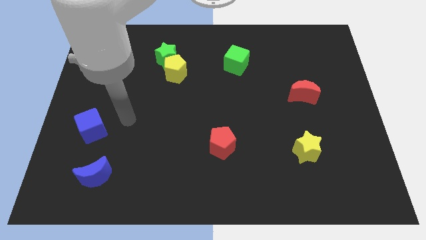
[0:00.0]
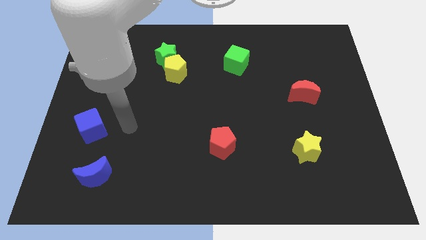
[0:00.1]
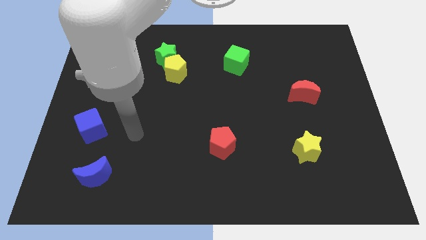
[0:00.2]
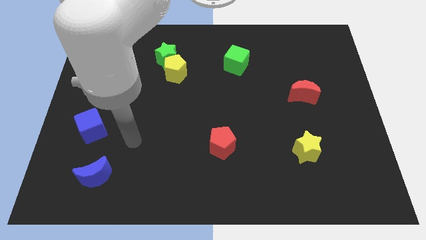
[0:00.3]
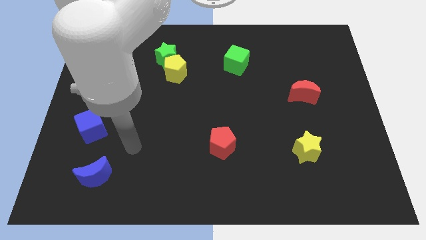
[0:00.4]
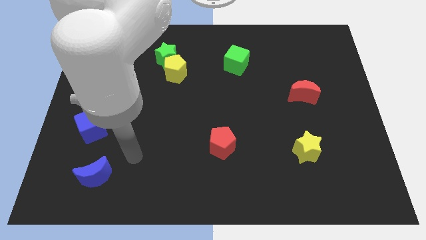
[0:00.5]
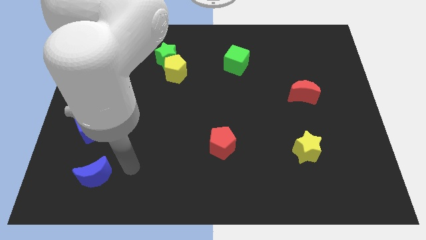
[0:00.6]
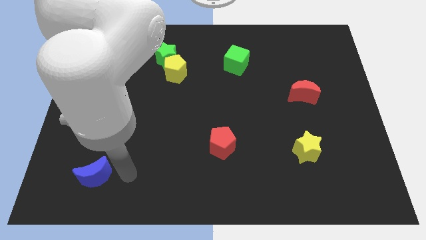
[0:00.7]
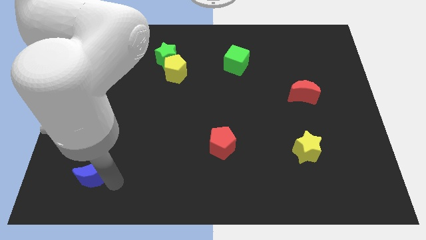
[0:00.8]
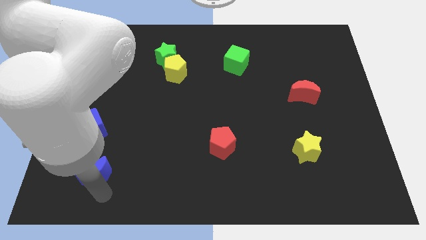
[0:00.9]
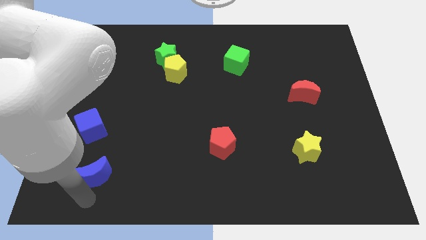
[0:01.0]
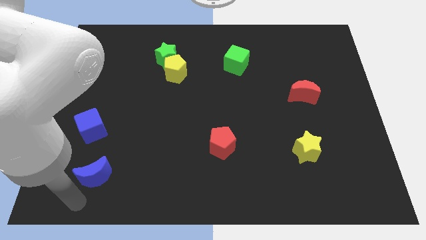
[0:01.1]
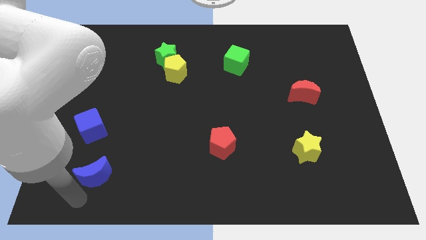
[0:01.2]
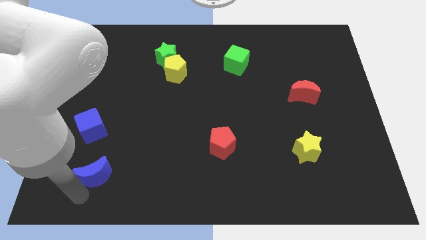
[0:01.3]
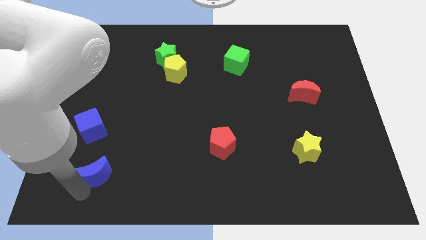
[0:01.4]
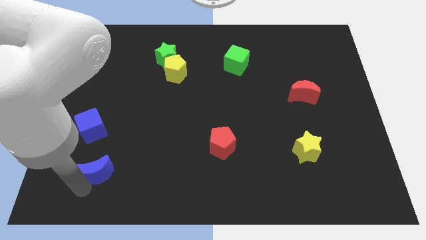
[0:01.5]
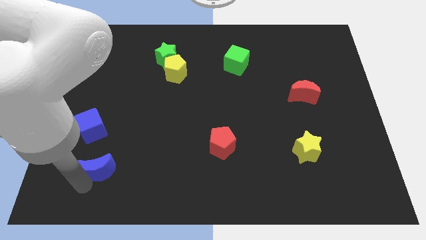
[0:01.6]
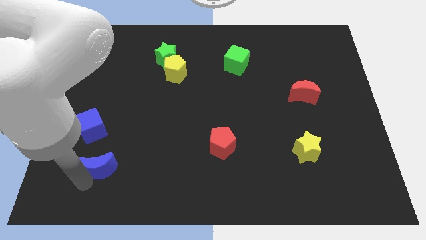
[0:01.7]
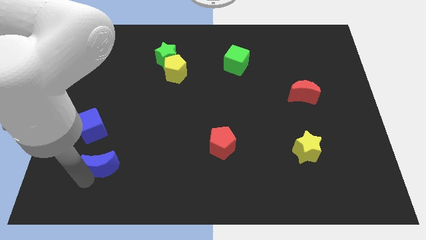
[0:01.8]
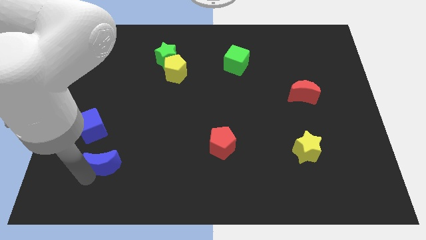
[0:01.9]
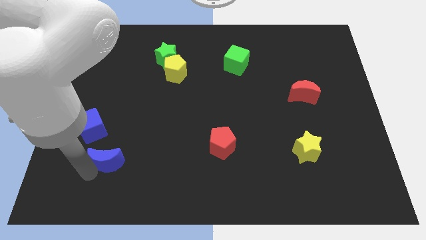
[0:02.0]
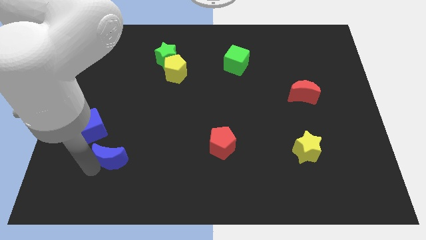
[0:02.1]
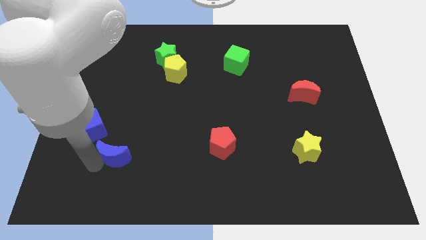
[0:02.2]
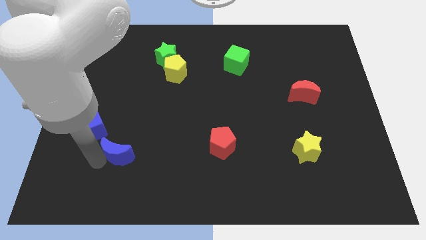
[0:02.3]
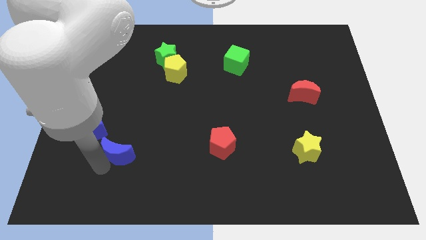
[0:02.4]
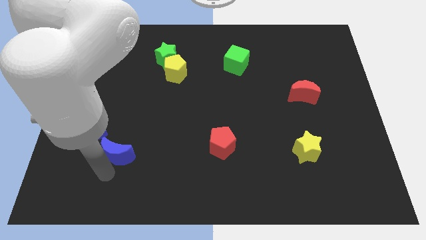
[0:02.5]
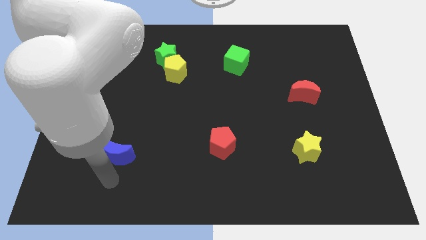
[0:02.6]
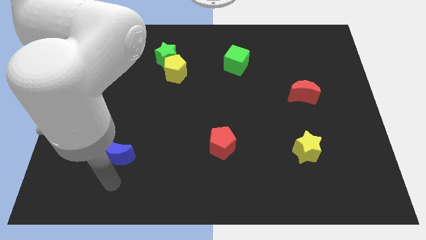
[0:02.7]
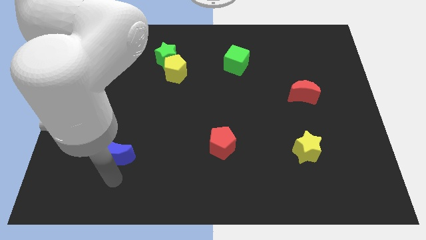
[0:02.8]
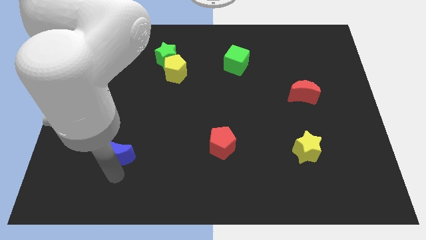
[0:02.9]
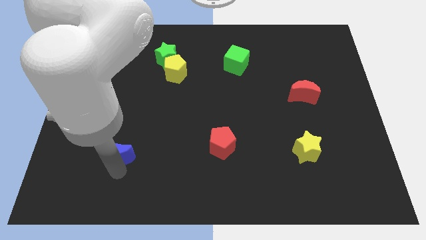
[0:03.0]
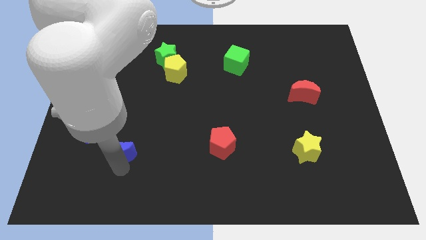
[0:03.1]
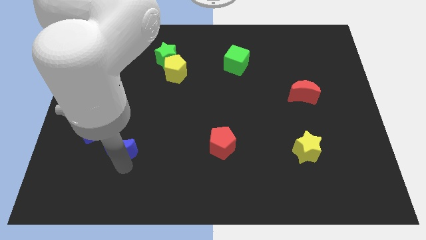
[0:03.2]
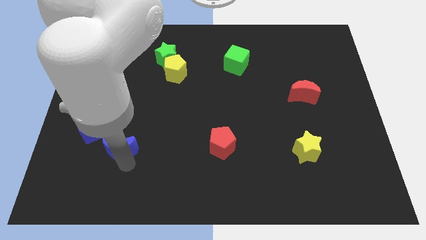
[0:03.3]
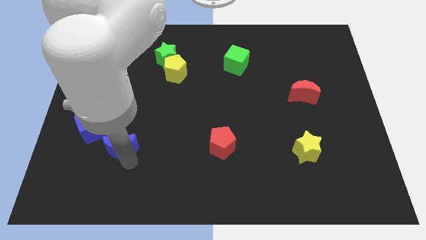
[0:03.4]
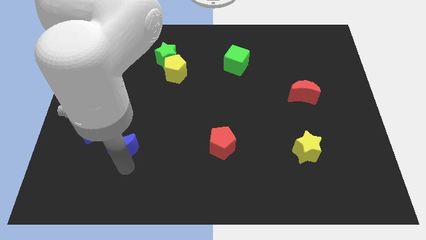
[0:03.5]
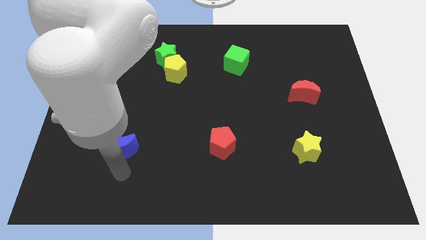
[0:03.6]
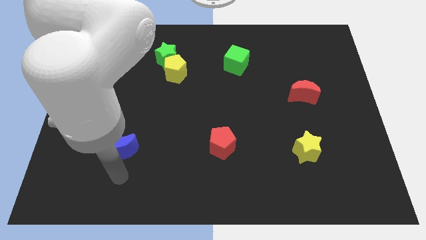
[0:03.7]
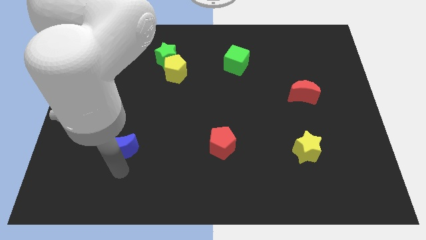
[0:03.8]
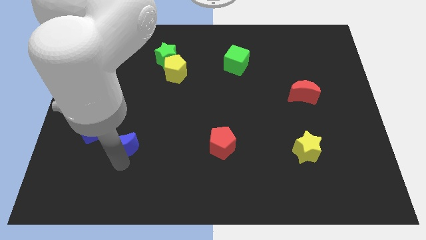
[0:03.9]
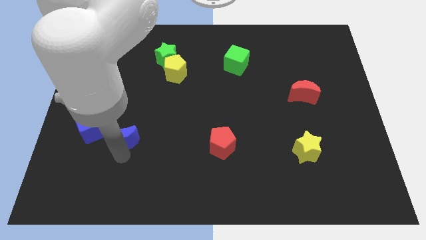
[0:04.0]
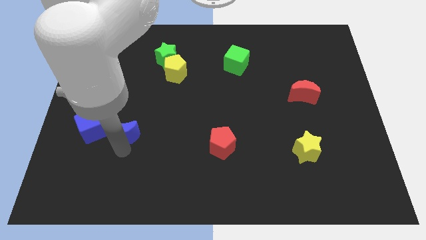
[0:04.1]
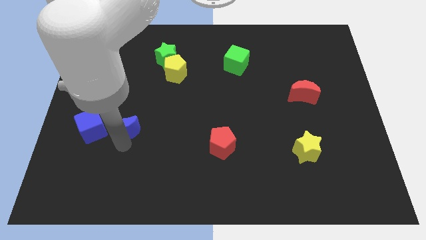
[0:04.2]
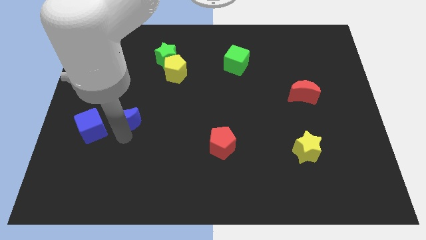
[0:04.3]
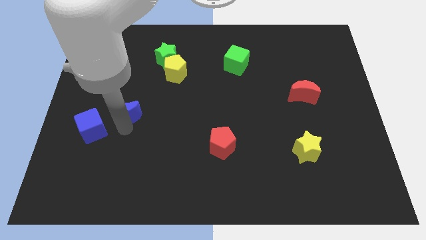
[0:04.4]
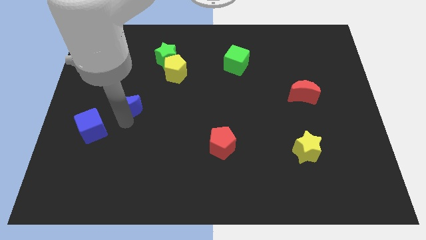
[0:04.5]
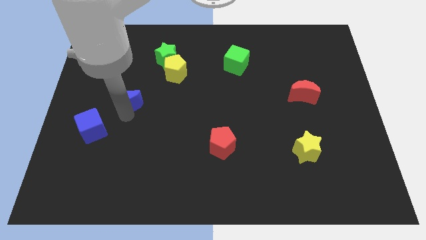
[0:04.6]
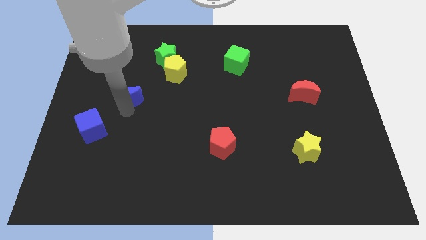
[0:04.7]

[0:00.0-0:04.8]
move the blue moon up

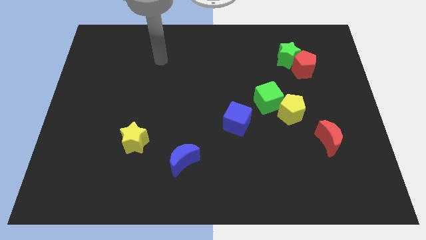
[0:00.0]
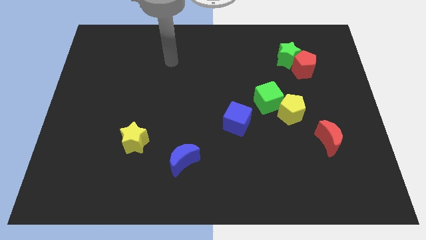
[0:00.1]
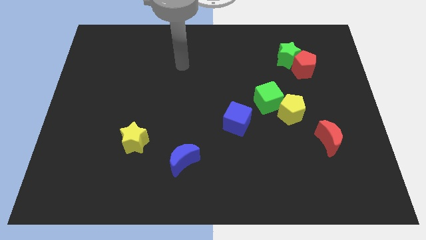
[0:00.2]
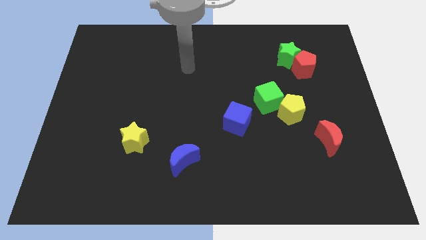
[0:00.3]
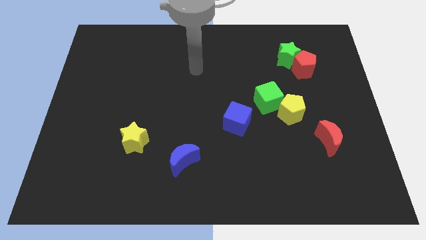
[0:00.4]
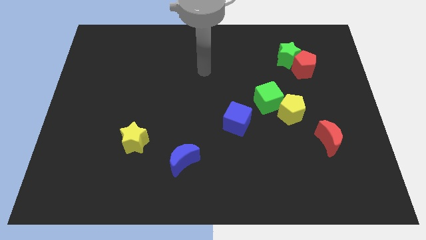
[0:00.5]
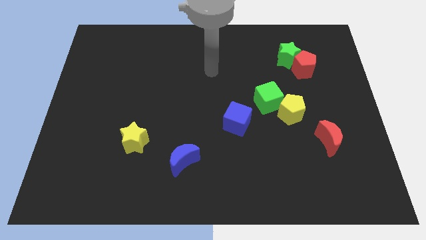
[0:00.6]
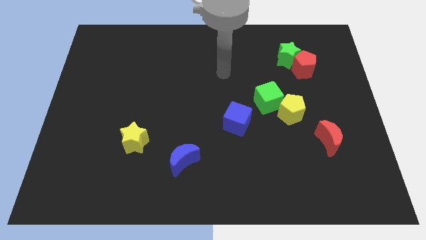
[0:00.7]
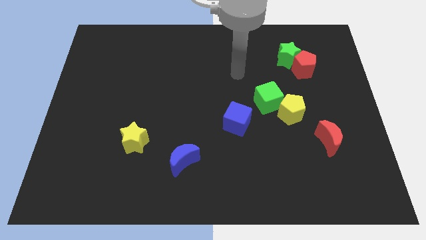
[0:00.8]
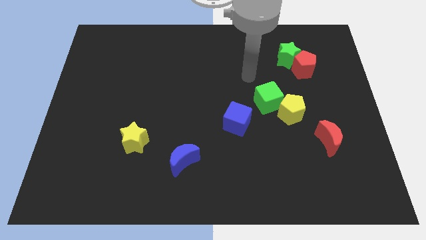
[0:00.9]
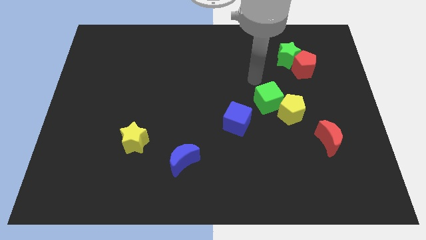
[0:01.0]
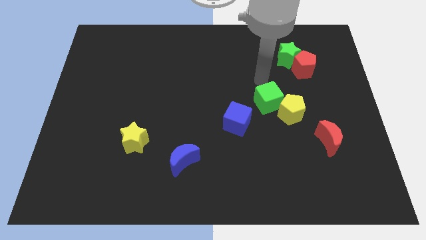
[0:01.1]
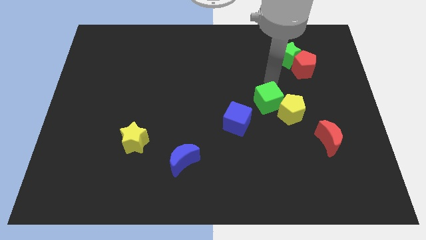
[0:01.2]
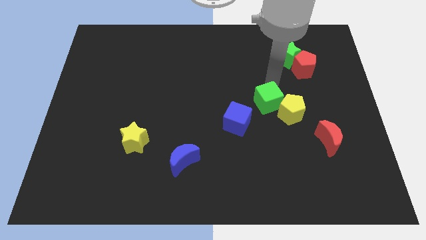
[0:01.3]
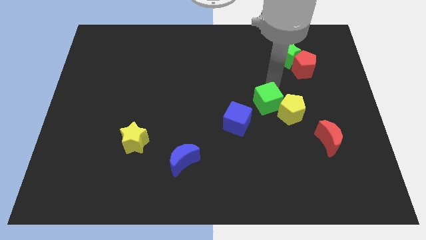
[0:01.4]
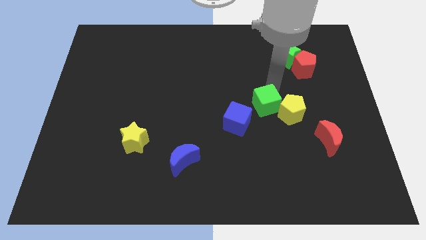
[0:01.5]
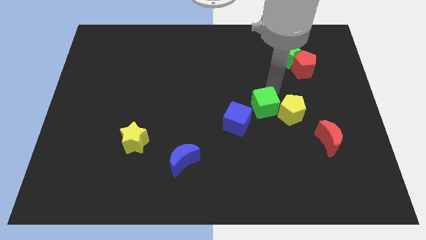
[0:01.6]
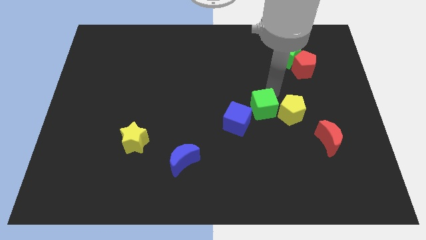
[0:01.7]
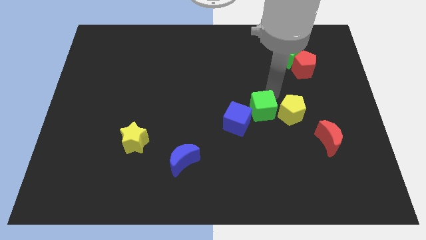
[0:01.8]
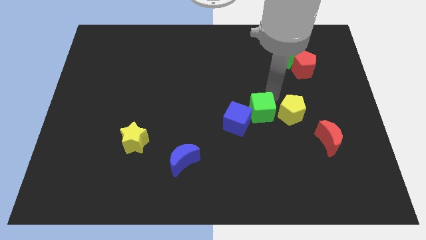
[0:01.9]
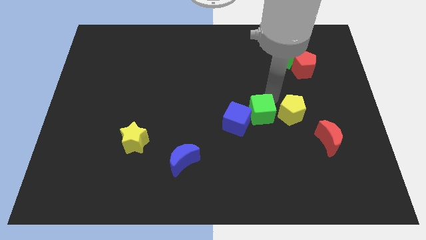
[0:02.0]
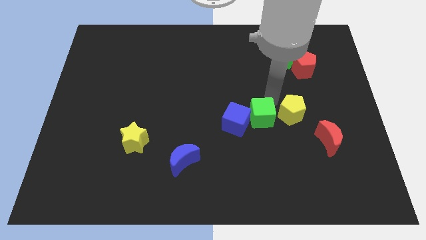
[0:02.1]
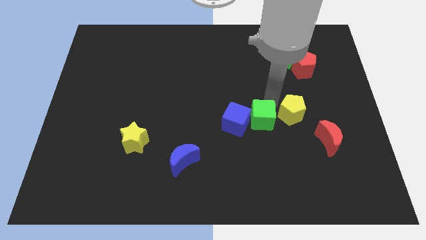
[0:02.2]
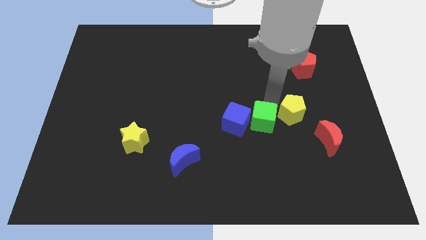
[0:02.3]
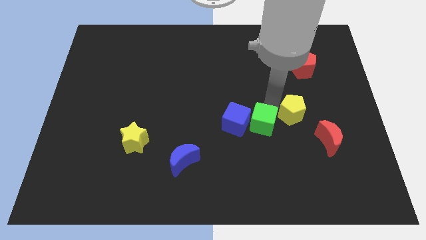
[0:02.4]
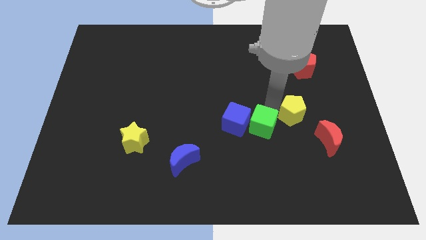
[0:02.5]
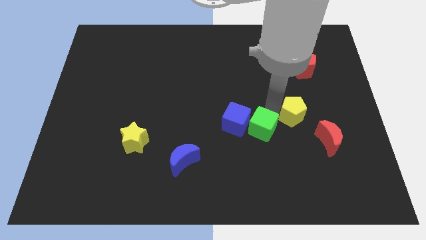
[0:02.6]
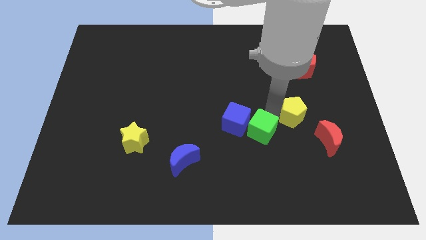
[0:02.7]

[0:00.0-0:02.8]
push the green cube down and left a little bit

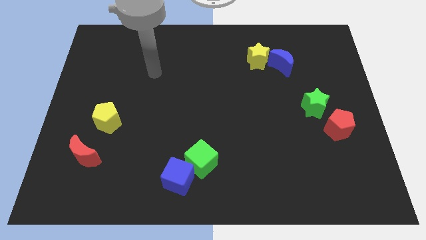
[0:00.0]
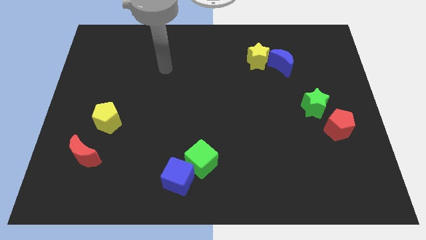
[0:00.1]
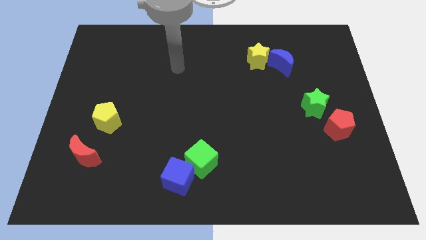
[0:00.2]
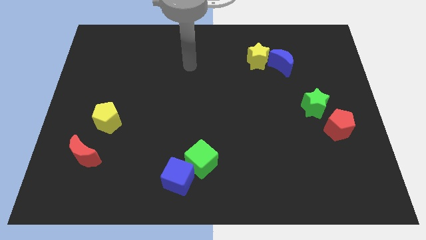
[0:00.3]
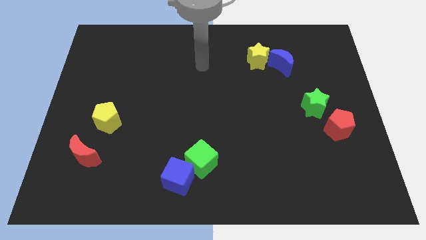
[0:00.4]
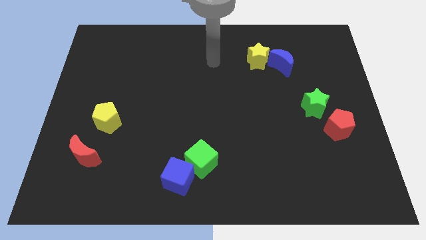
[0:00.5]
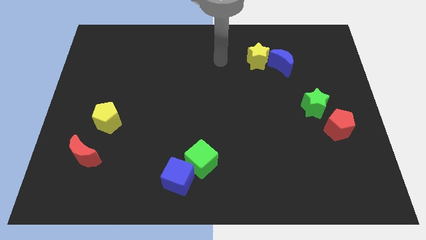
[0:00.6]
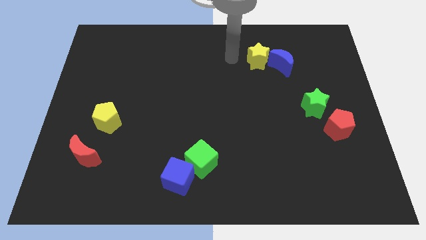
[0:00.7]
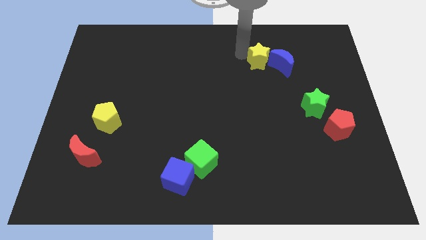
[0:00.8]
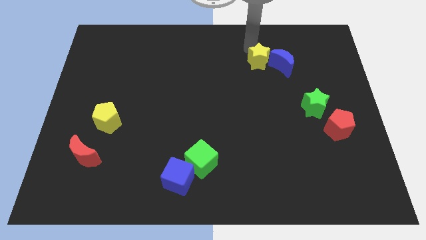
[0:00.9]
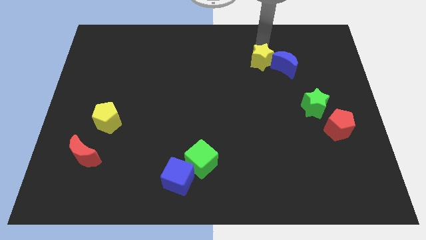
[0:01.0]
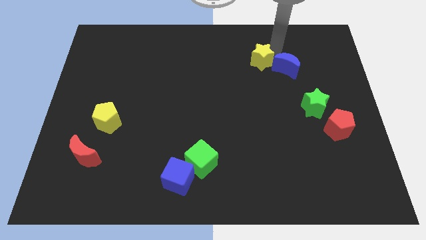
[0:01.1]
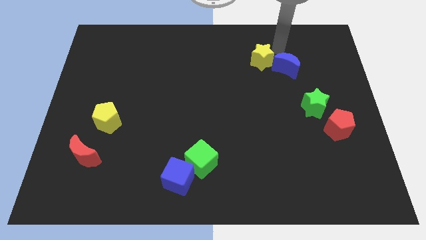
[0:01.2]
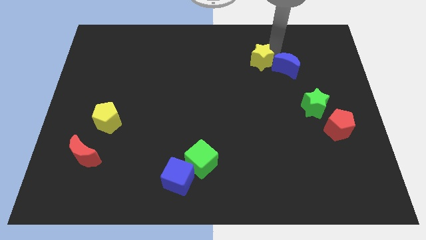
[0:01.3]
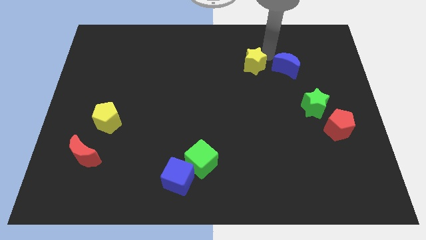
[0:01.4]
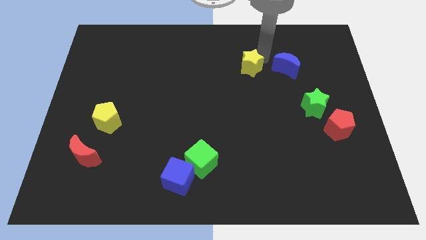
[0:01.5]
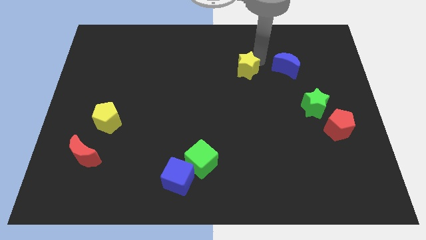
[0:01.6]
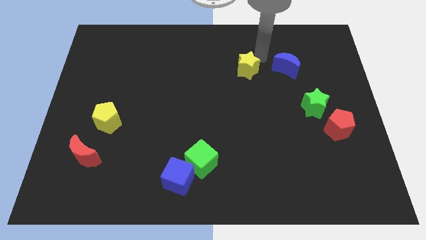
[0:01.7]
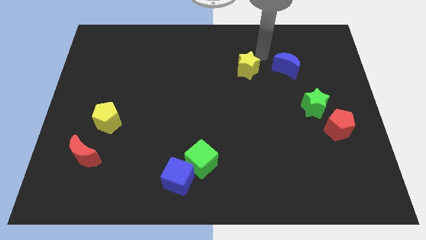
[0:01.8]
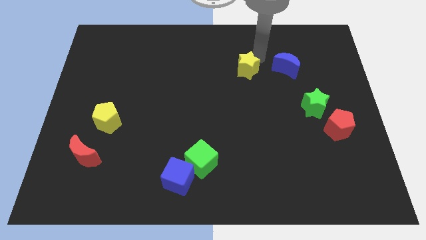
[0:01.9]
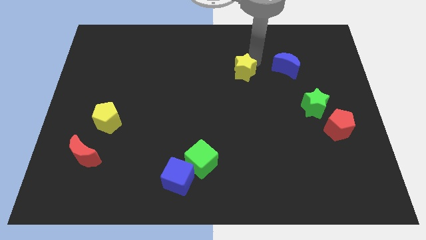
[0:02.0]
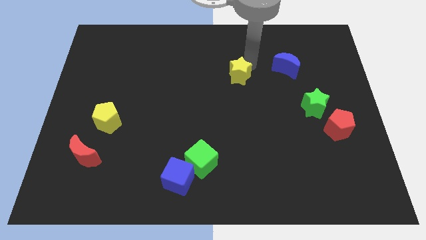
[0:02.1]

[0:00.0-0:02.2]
move the yellow star slightly down and to the left
